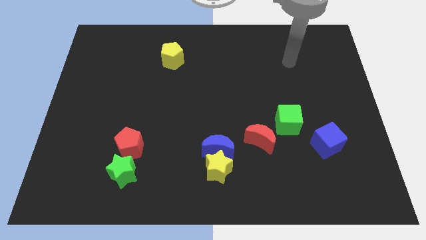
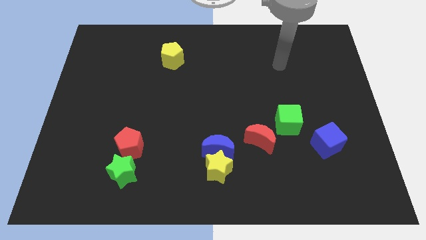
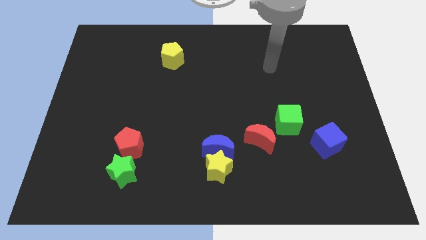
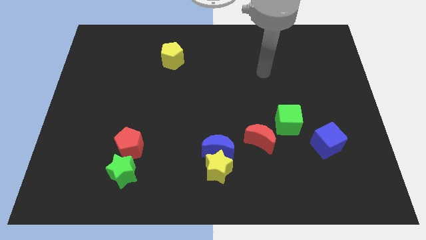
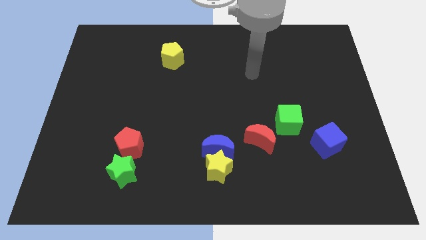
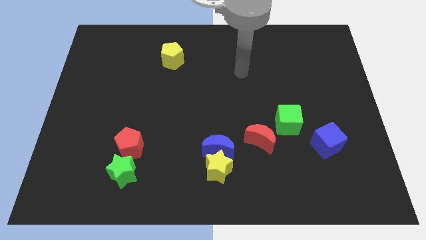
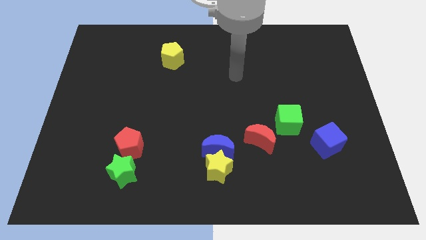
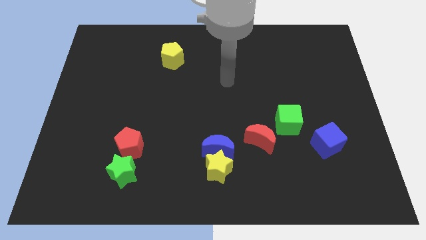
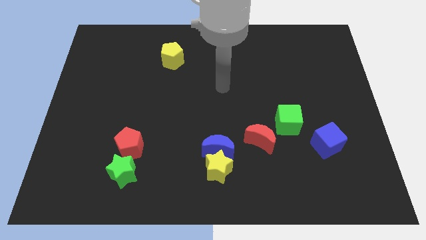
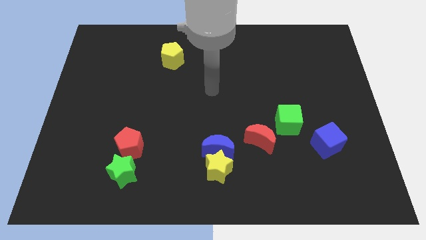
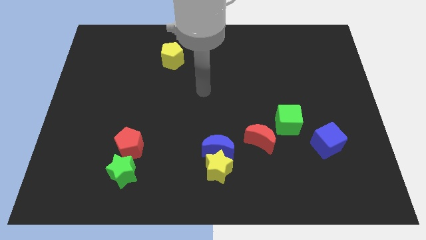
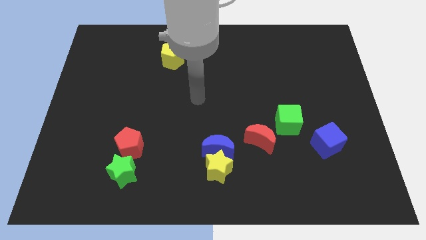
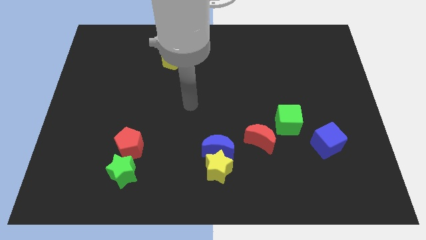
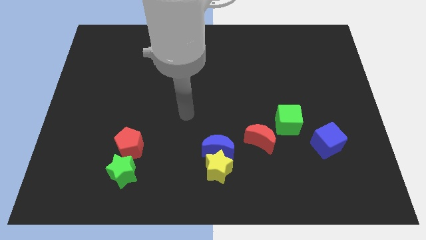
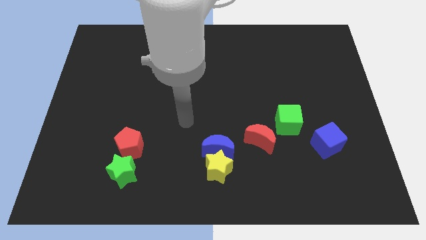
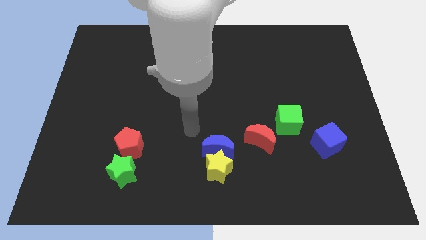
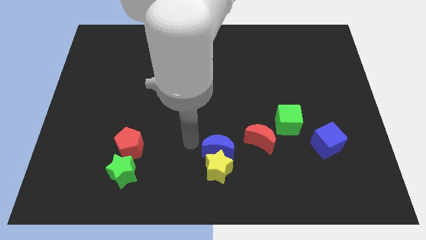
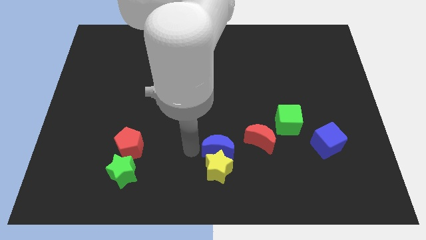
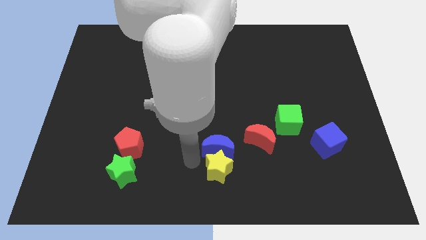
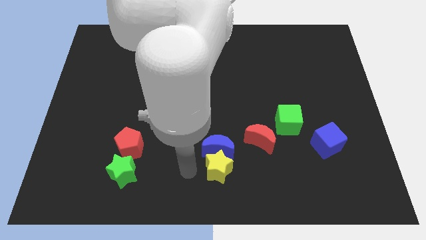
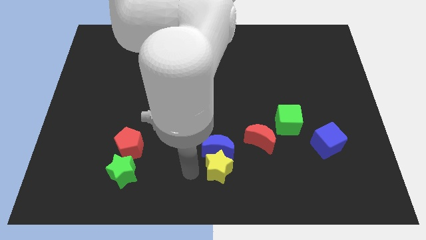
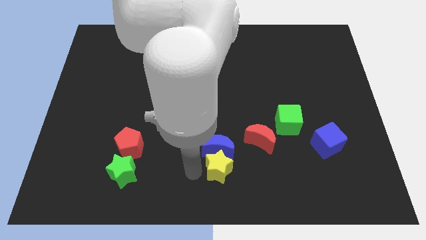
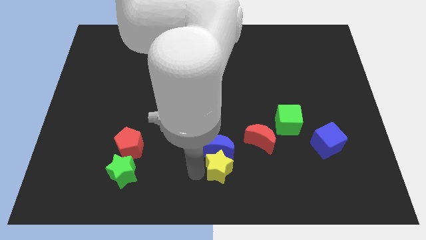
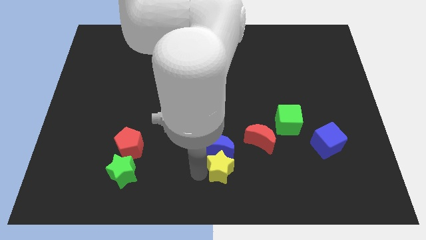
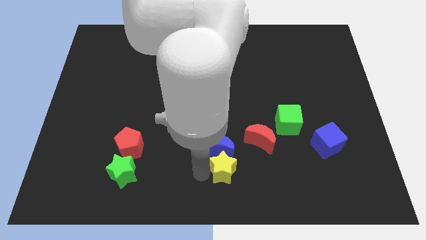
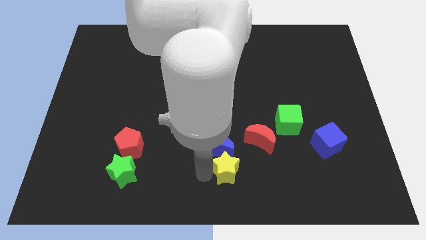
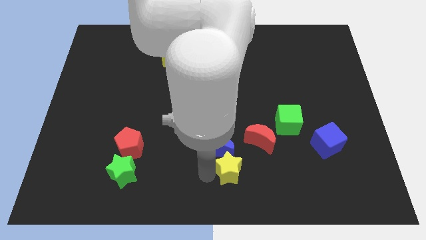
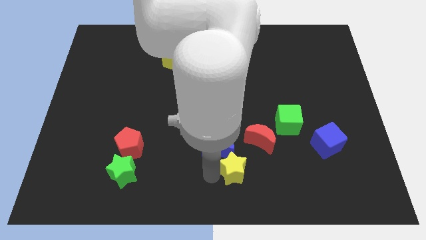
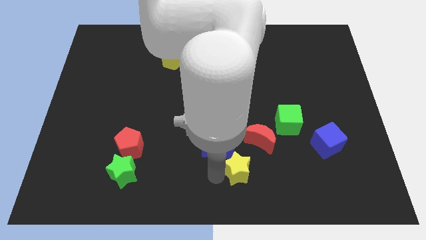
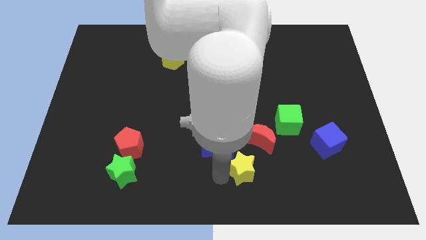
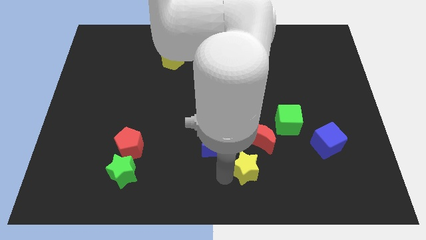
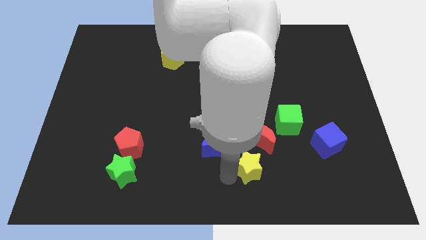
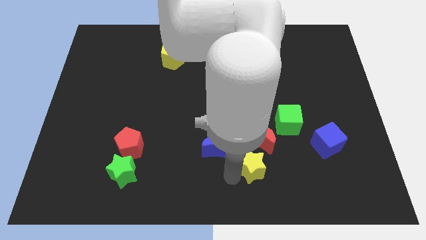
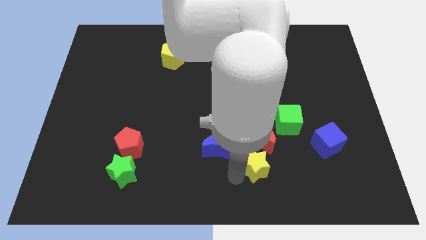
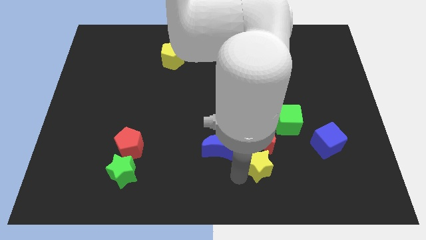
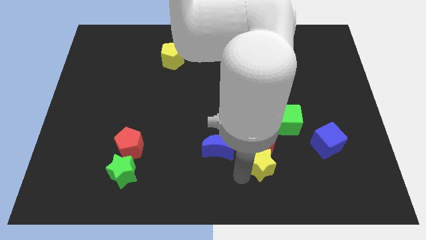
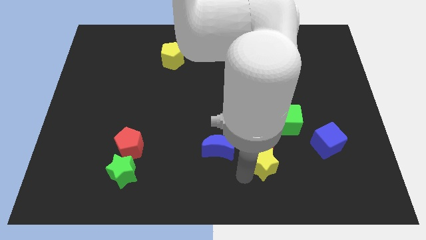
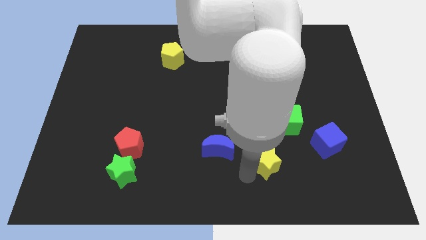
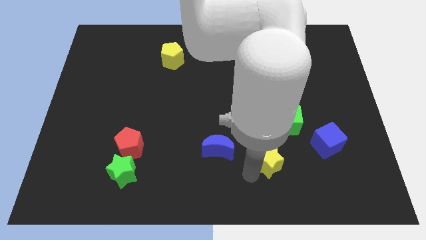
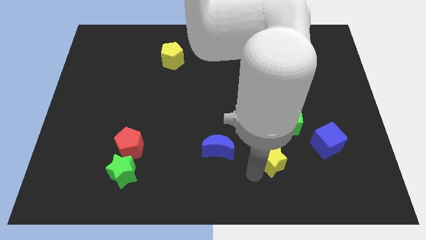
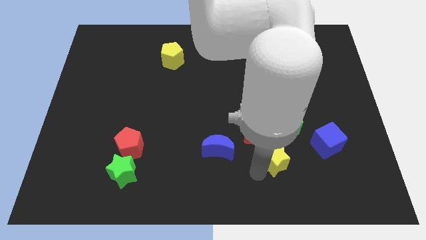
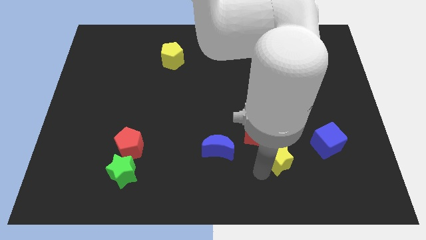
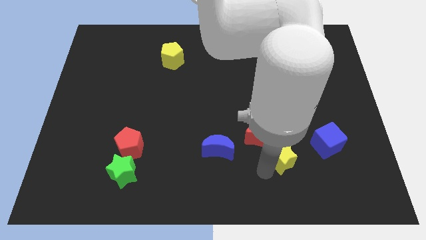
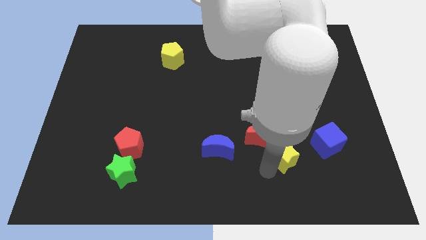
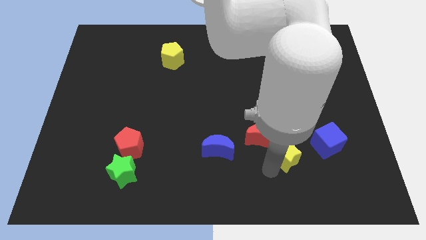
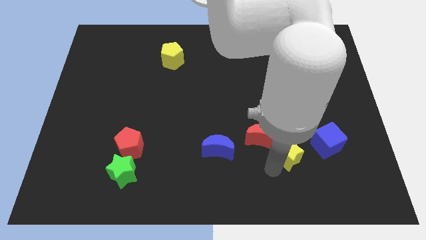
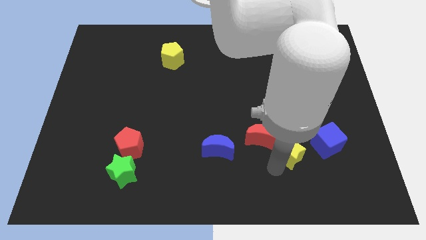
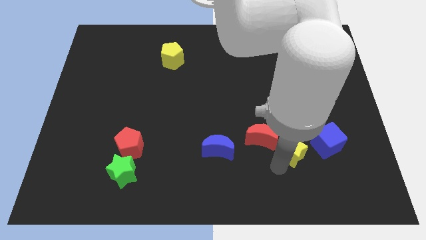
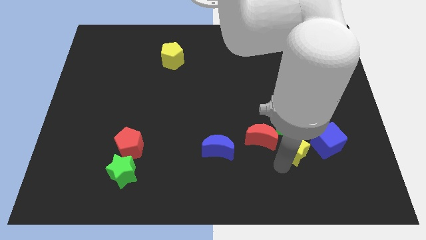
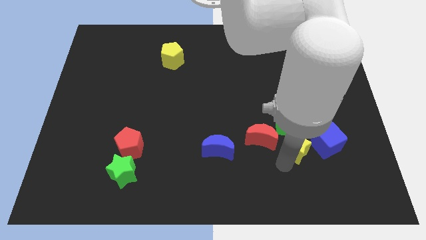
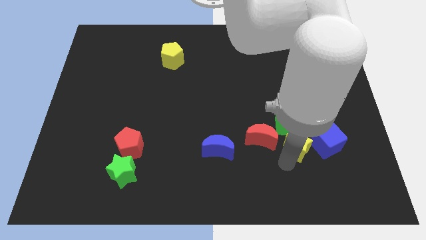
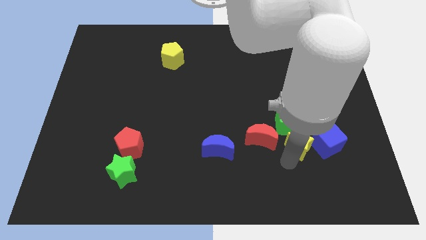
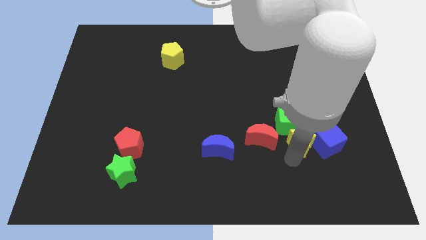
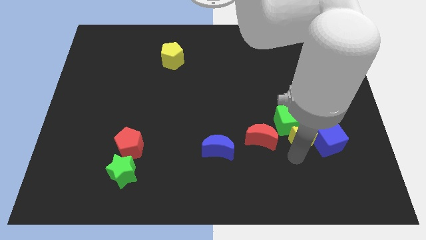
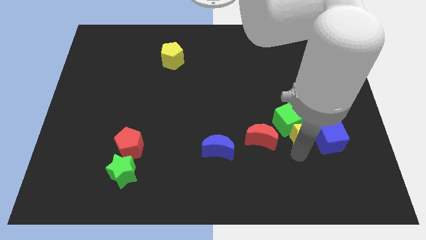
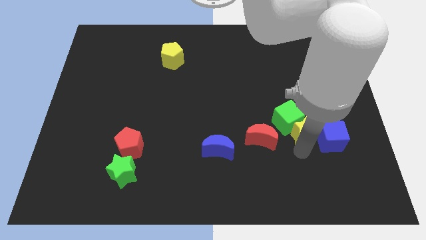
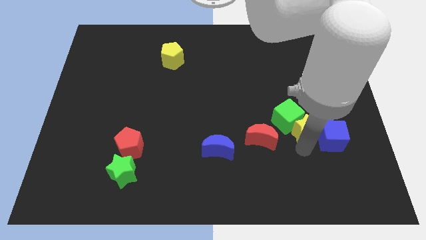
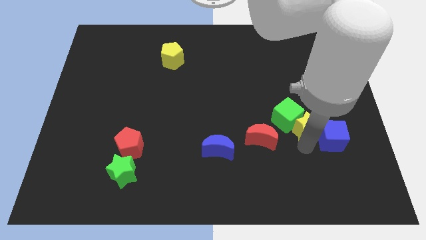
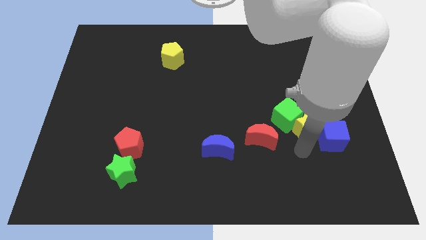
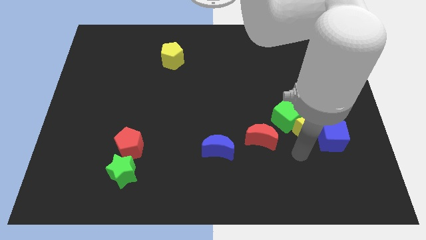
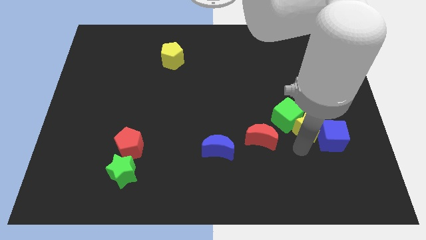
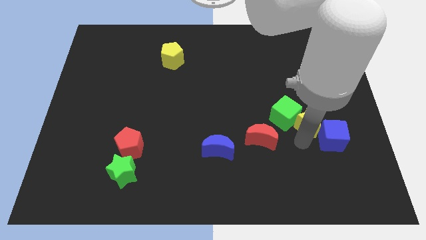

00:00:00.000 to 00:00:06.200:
push the yellow star upwards and right diagonally

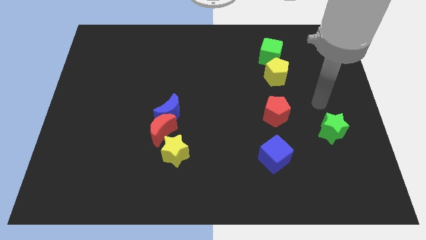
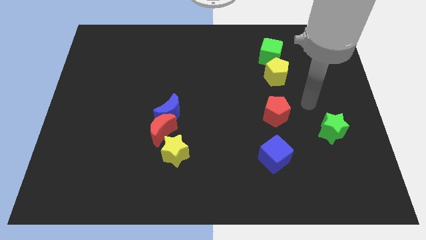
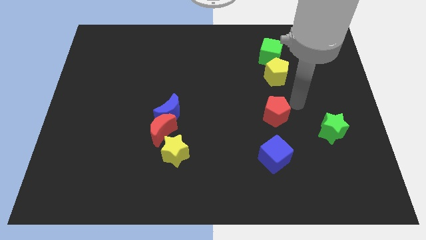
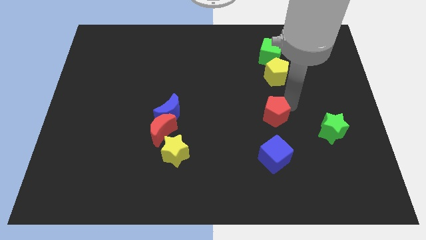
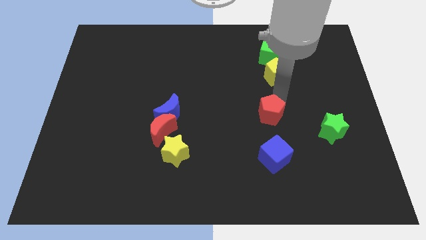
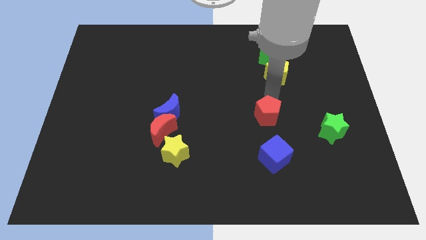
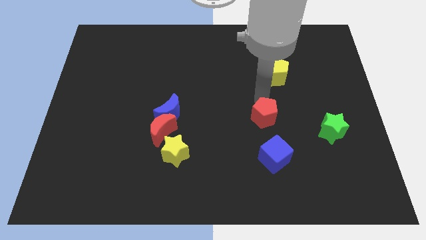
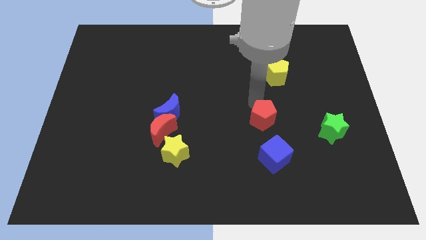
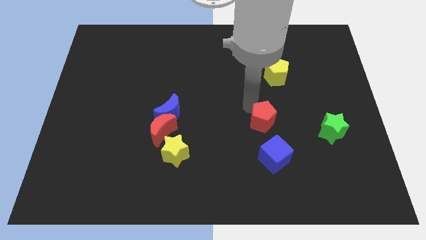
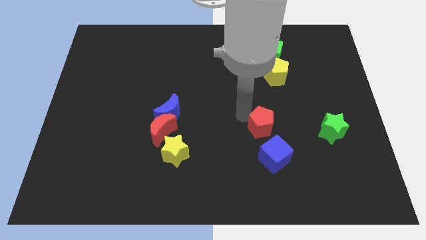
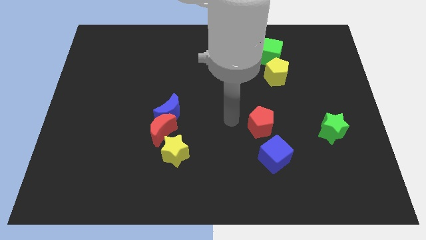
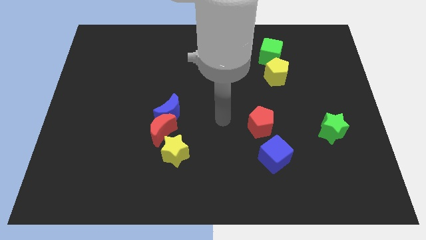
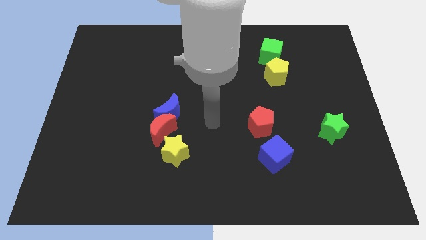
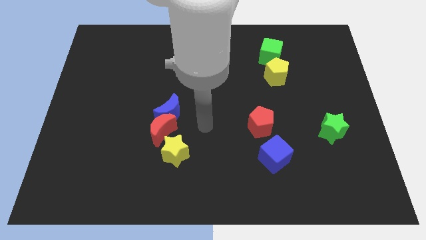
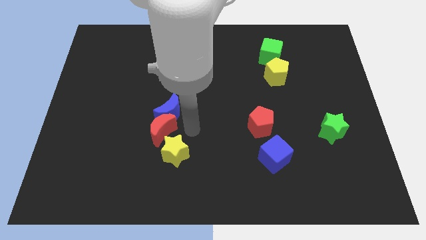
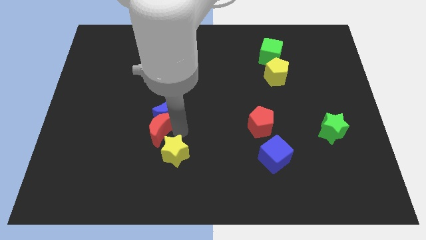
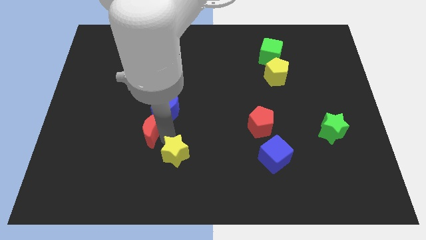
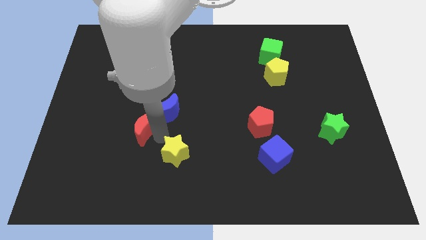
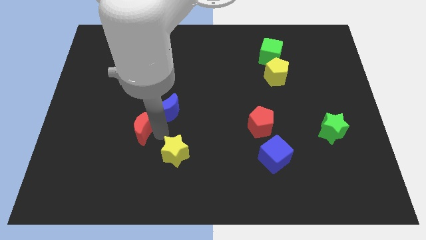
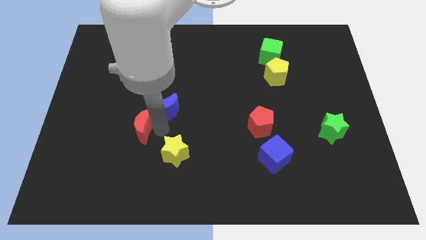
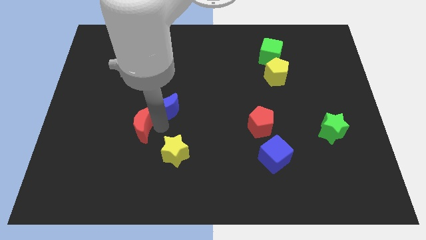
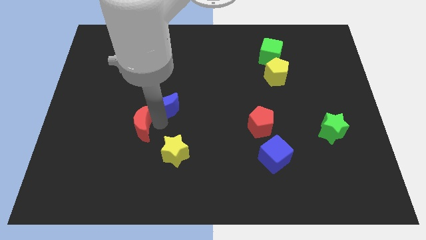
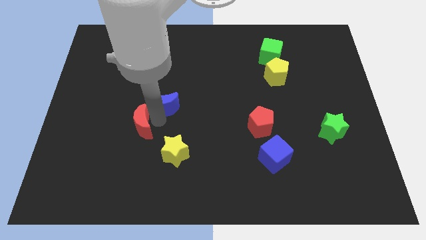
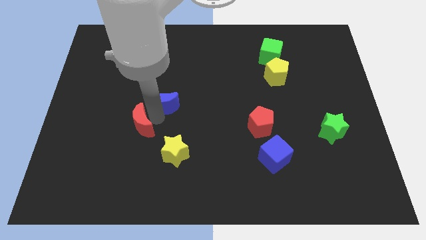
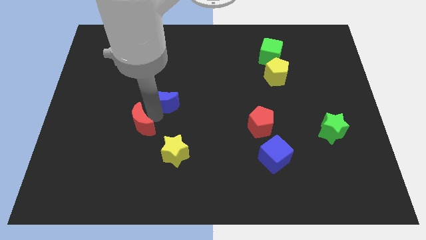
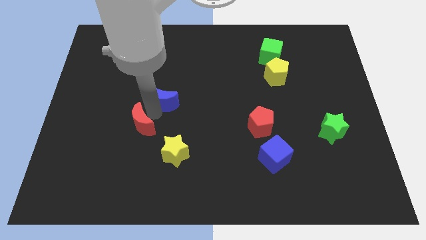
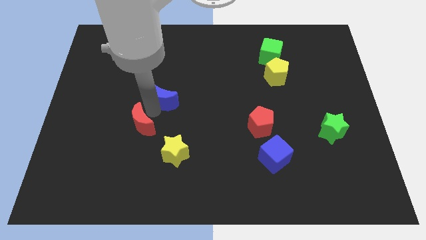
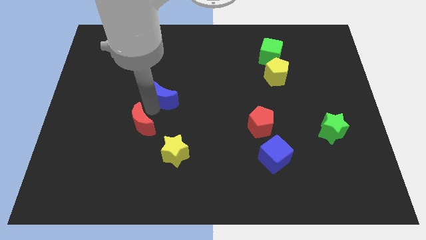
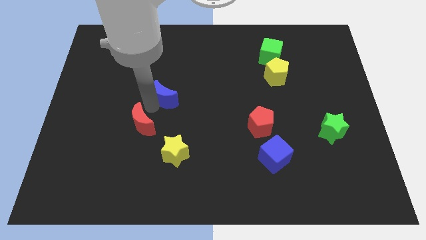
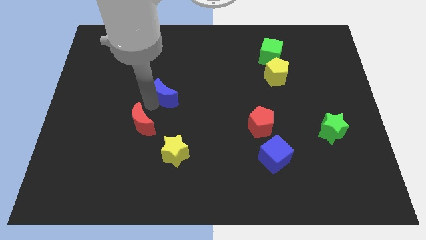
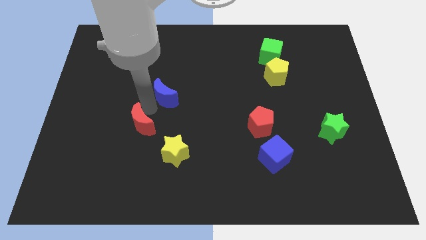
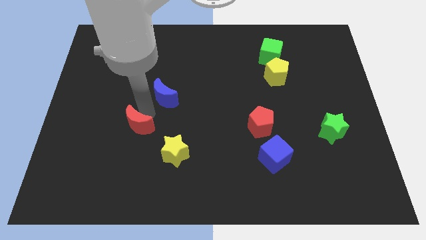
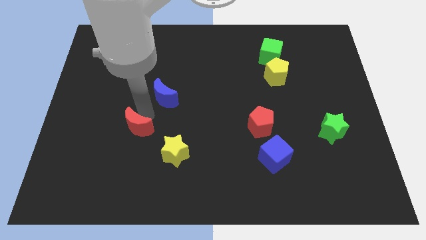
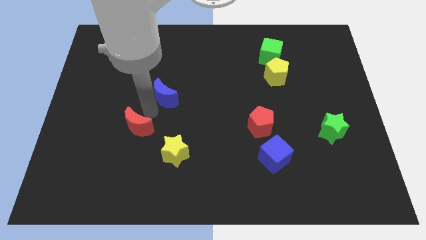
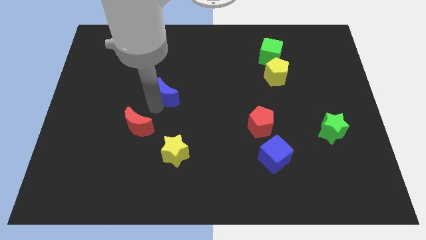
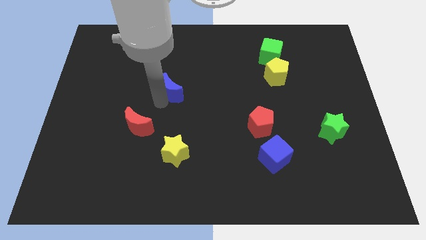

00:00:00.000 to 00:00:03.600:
slightly move the blue moon upwards
